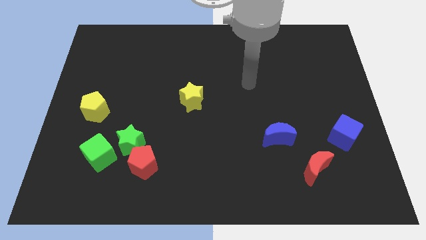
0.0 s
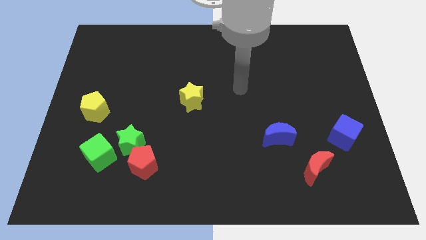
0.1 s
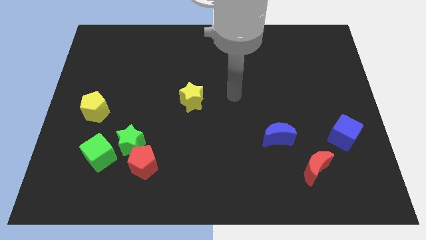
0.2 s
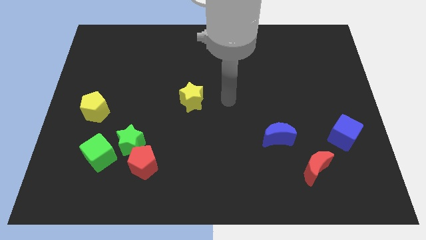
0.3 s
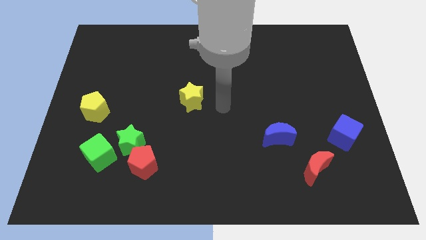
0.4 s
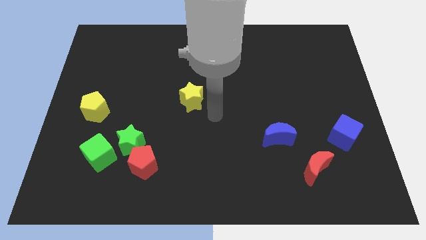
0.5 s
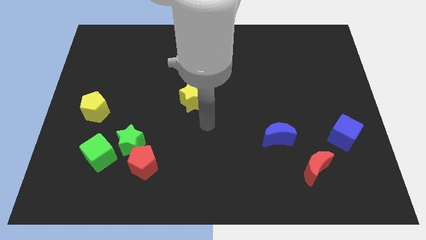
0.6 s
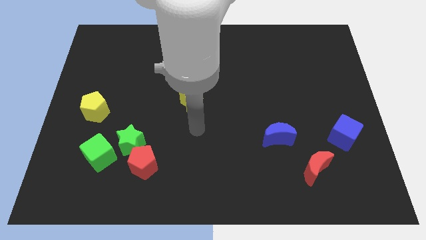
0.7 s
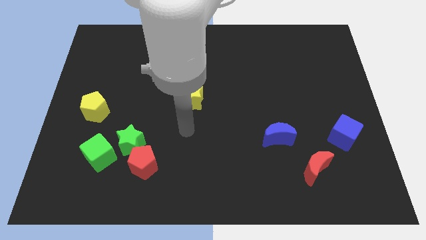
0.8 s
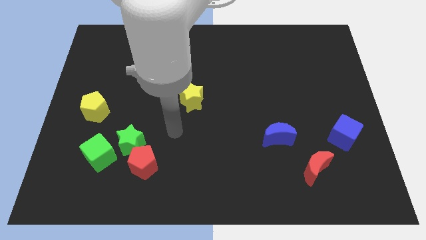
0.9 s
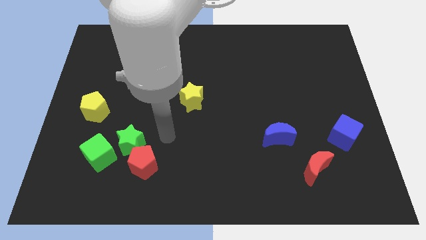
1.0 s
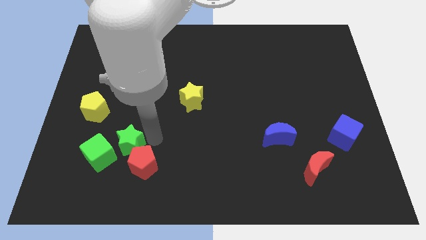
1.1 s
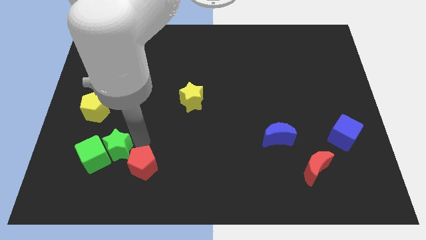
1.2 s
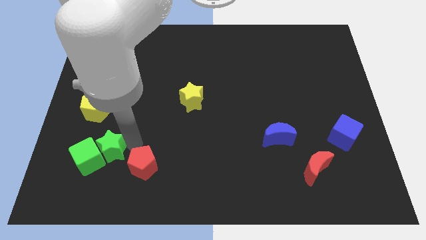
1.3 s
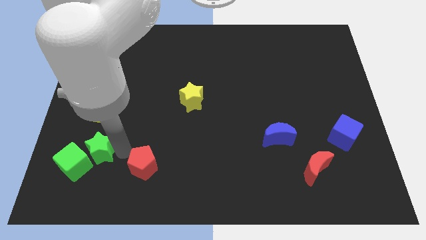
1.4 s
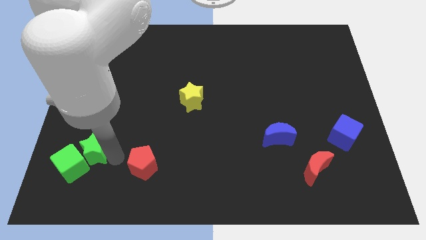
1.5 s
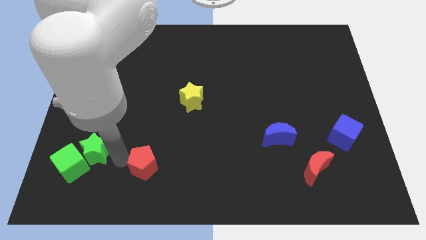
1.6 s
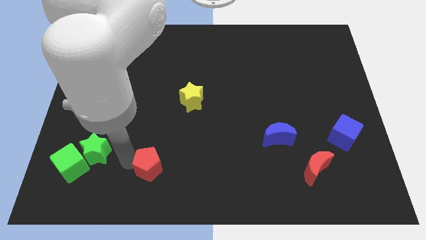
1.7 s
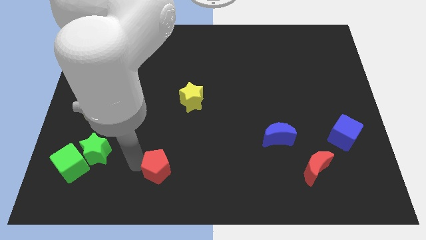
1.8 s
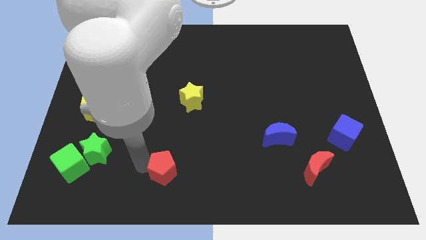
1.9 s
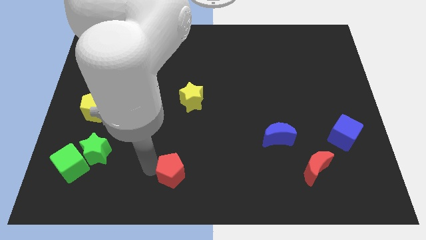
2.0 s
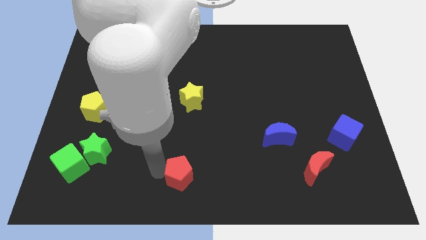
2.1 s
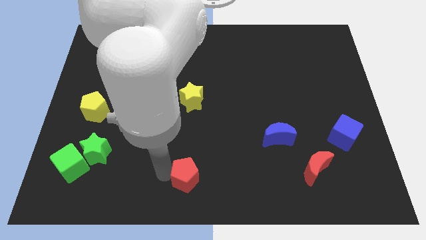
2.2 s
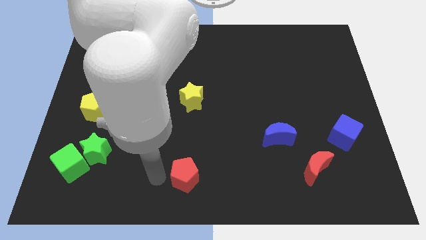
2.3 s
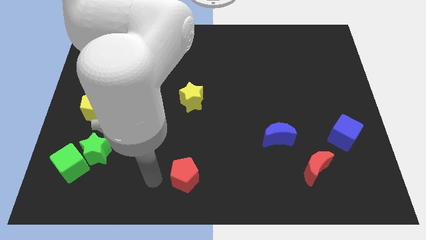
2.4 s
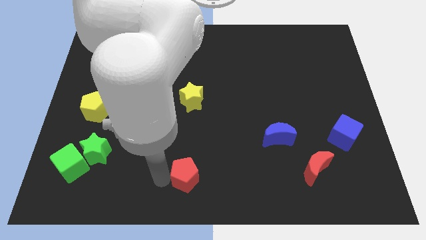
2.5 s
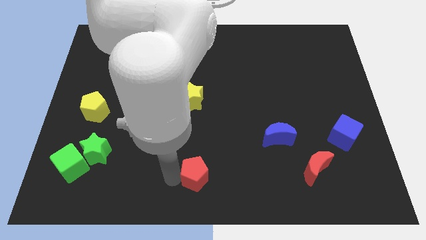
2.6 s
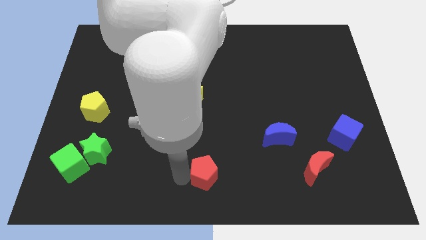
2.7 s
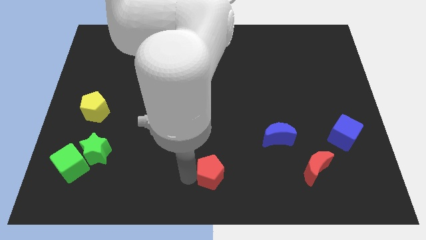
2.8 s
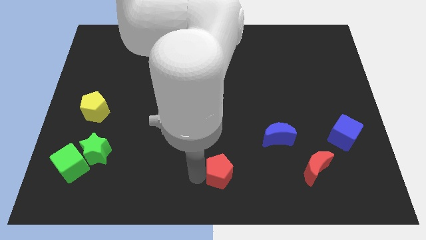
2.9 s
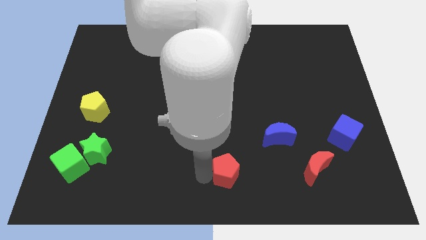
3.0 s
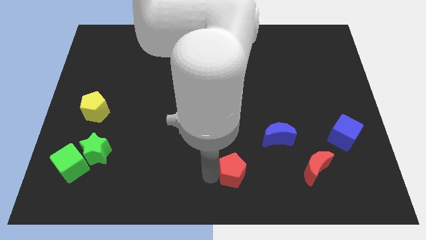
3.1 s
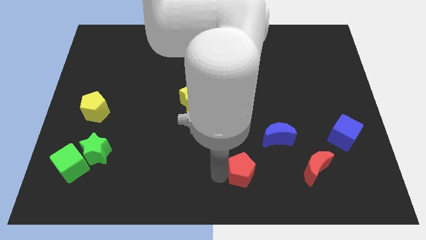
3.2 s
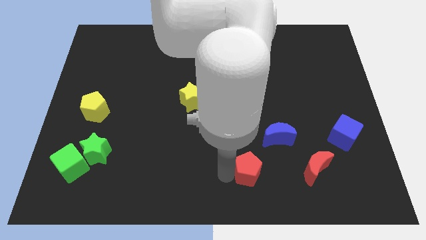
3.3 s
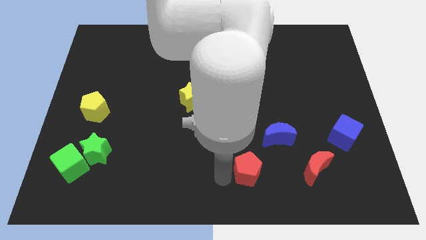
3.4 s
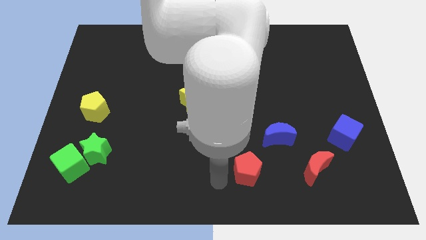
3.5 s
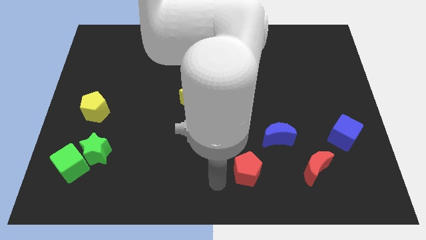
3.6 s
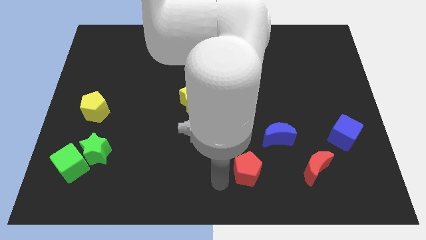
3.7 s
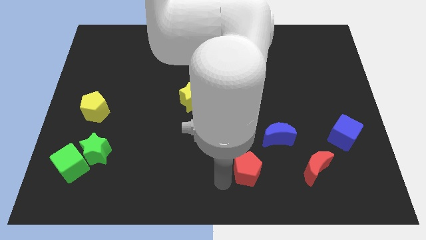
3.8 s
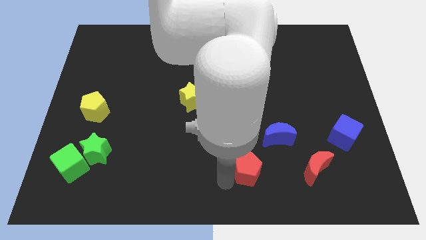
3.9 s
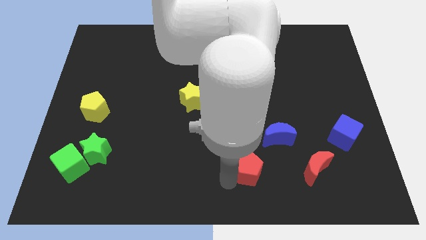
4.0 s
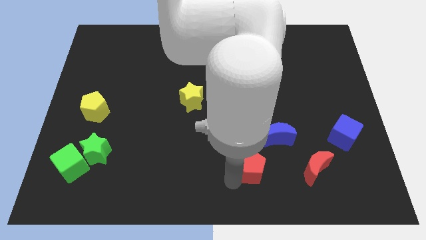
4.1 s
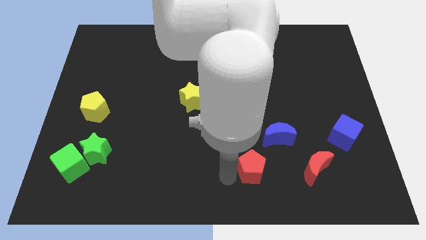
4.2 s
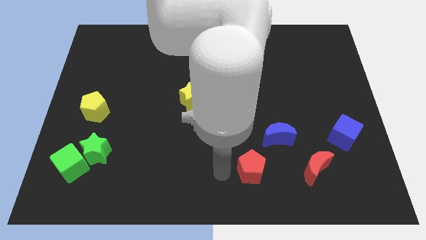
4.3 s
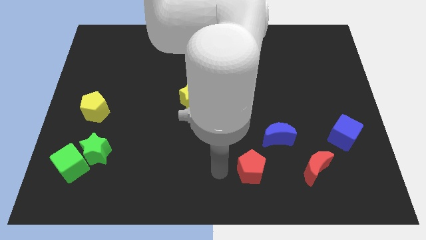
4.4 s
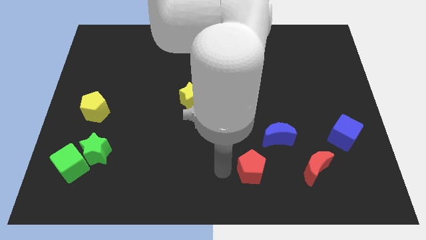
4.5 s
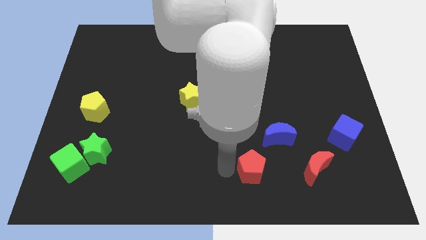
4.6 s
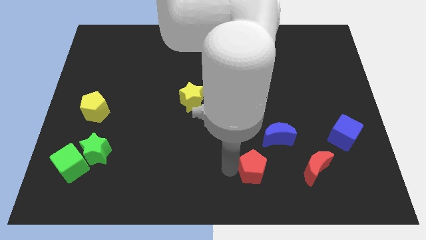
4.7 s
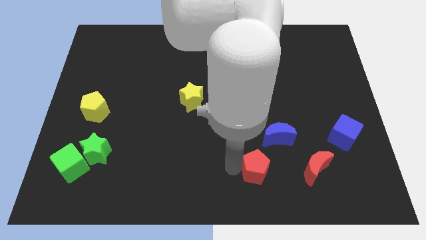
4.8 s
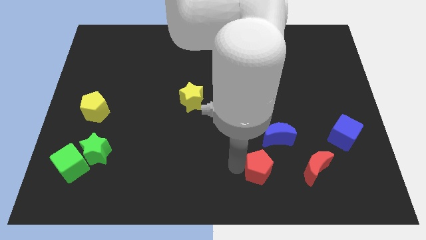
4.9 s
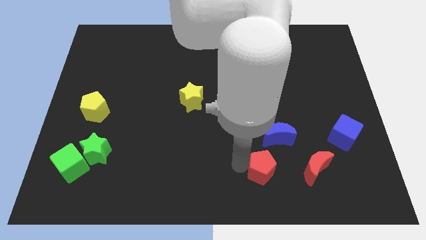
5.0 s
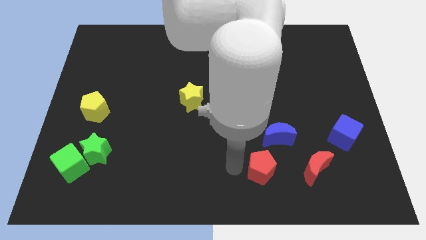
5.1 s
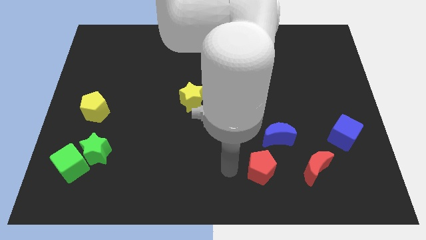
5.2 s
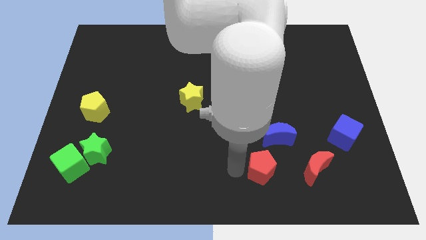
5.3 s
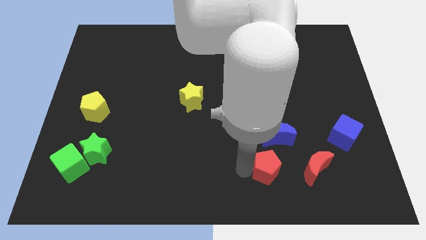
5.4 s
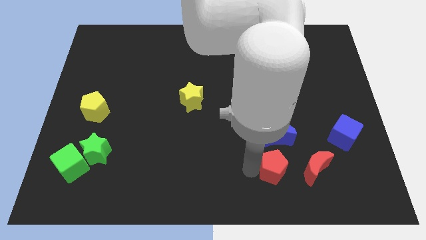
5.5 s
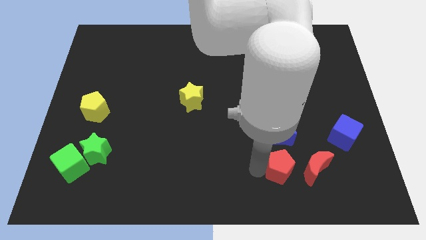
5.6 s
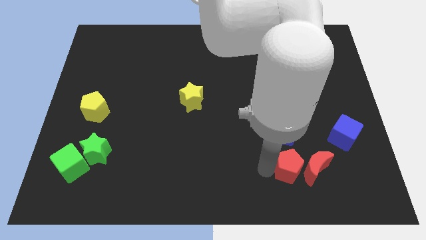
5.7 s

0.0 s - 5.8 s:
slide the red pentagon close to the red moon
